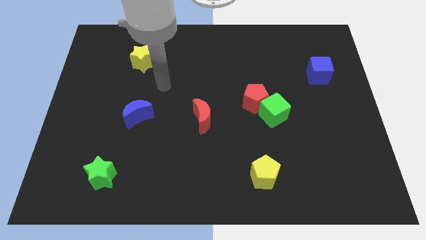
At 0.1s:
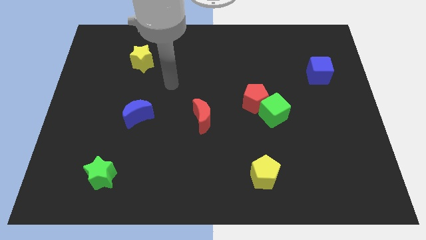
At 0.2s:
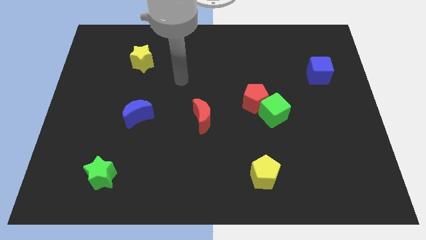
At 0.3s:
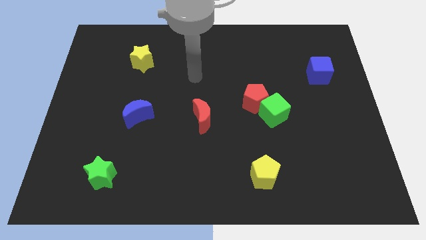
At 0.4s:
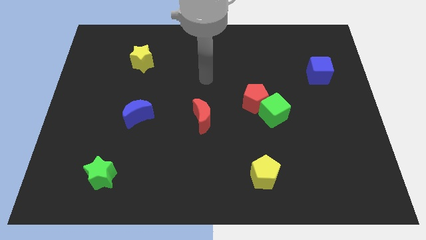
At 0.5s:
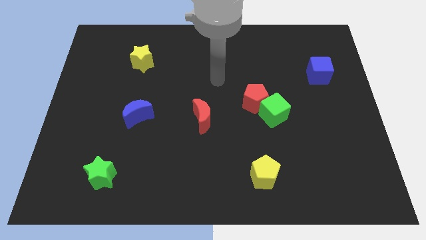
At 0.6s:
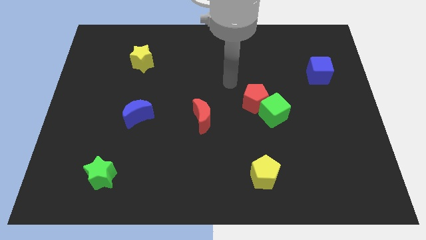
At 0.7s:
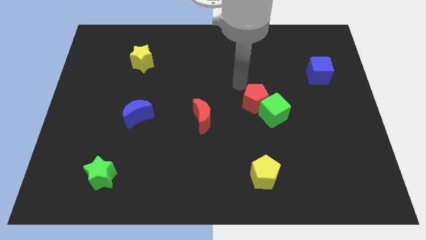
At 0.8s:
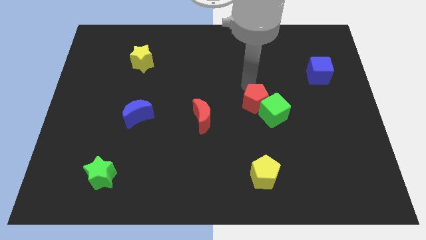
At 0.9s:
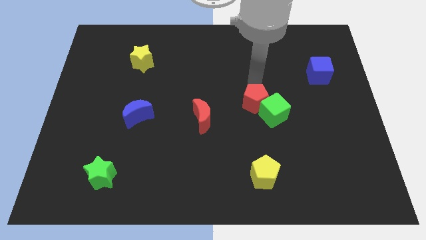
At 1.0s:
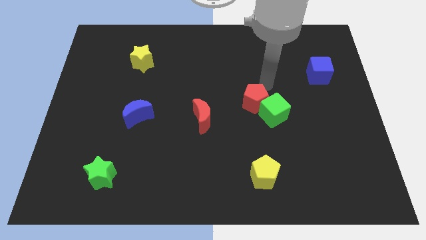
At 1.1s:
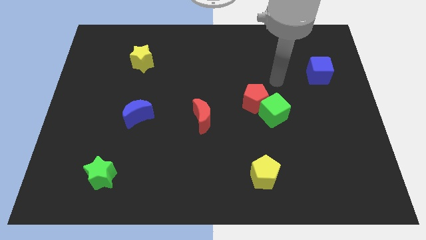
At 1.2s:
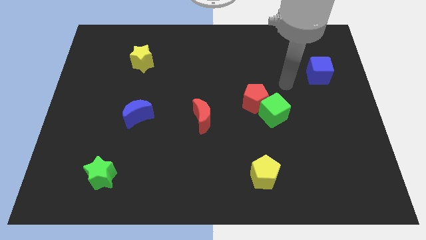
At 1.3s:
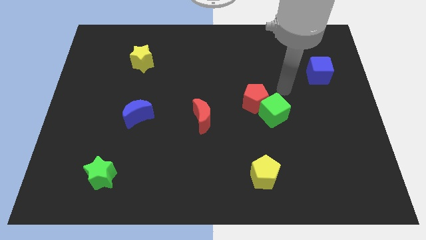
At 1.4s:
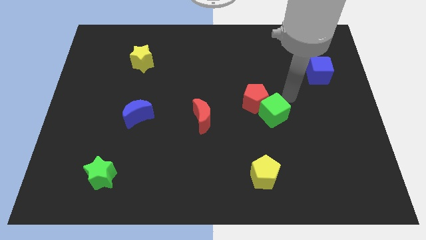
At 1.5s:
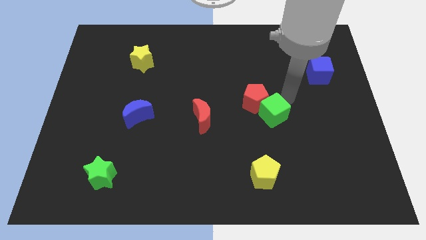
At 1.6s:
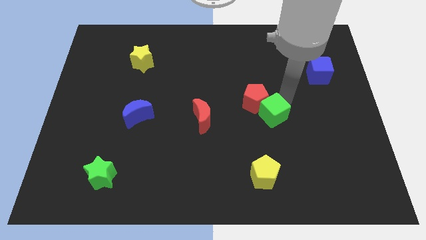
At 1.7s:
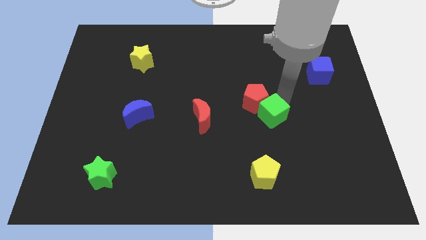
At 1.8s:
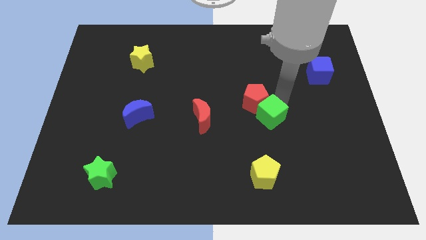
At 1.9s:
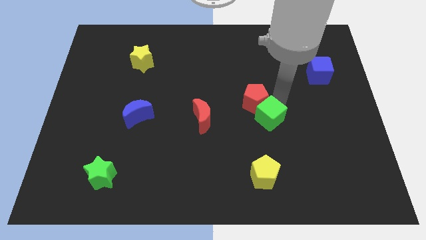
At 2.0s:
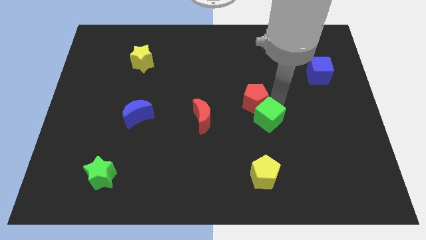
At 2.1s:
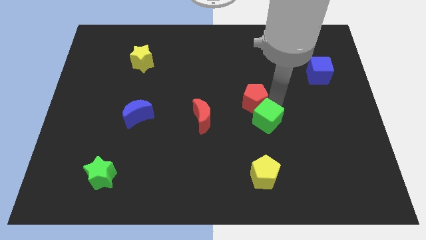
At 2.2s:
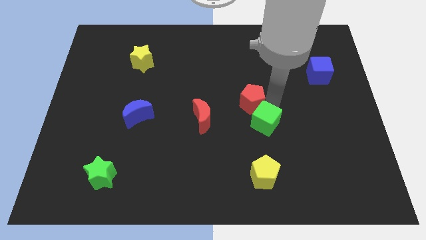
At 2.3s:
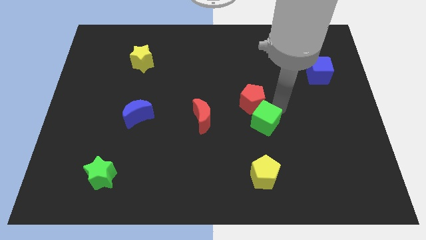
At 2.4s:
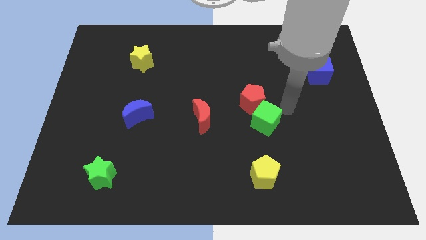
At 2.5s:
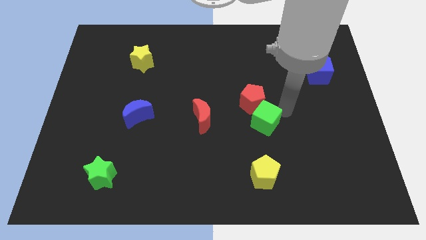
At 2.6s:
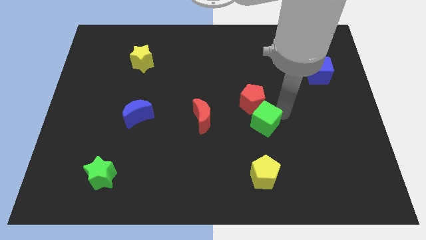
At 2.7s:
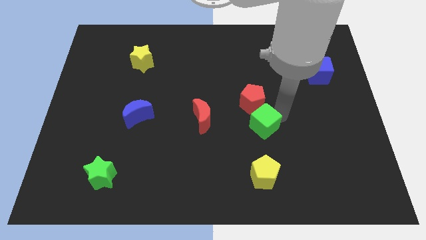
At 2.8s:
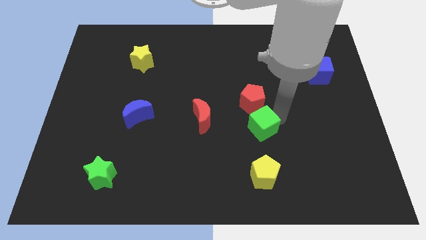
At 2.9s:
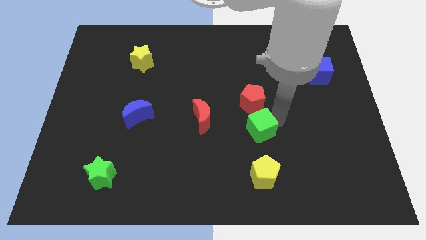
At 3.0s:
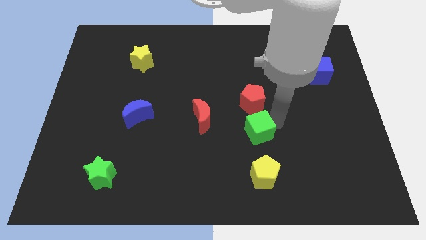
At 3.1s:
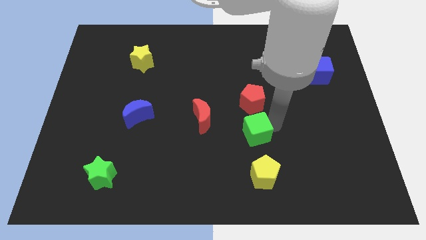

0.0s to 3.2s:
move the green cube a little down and then to the left

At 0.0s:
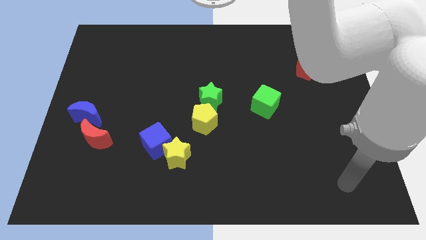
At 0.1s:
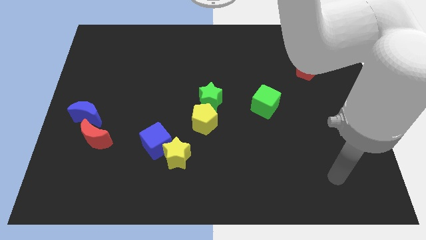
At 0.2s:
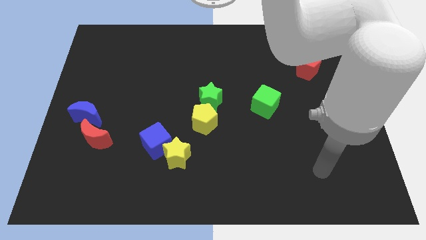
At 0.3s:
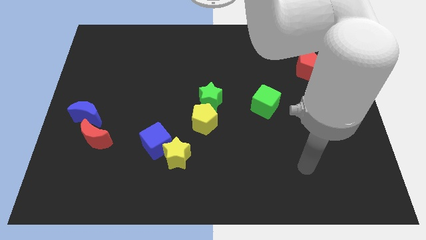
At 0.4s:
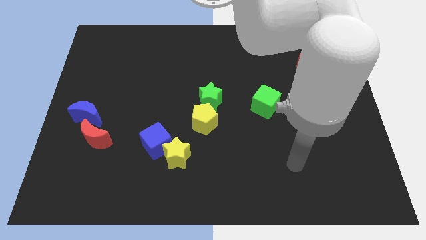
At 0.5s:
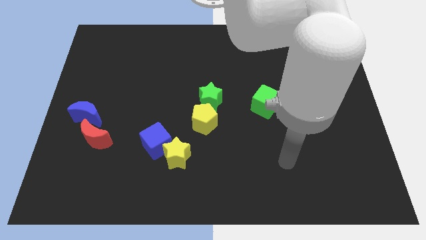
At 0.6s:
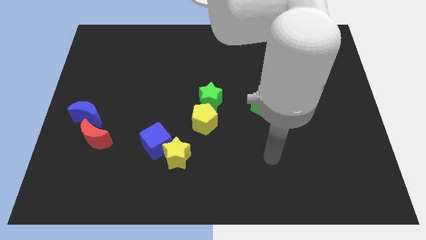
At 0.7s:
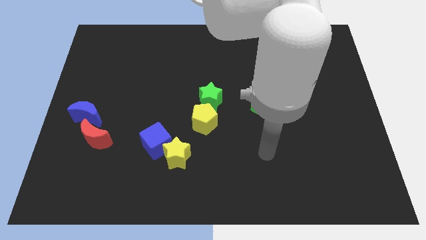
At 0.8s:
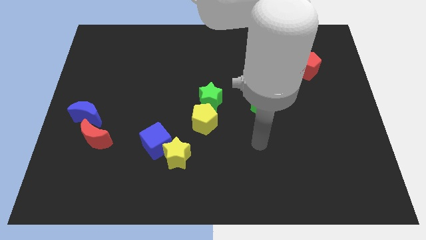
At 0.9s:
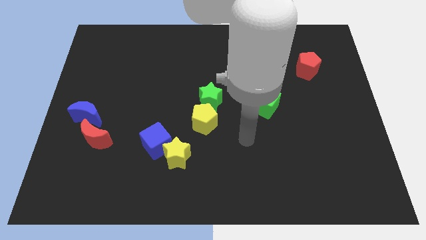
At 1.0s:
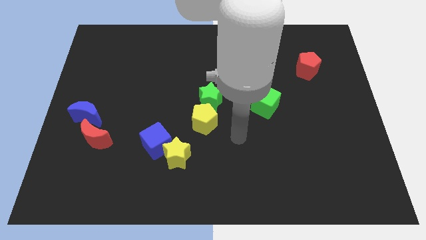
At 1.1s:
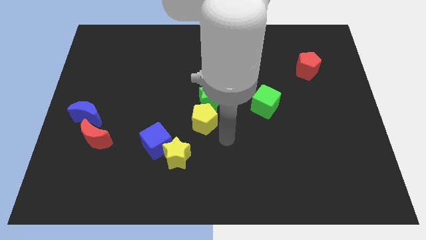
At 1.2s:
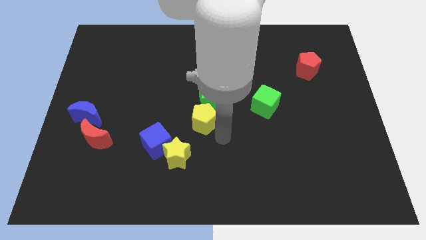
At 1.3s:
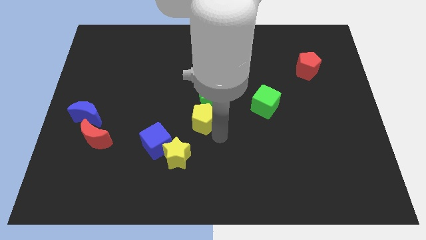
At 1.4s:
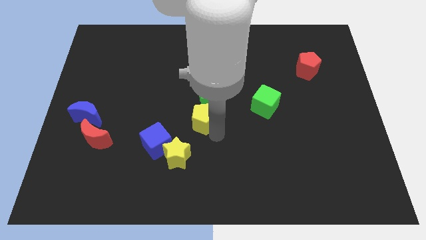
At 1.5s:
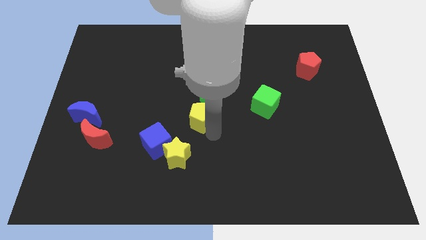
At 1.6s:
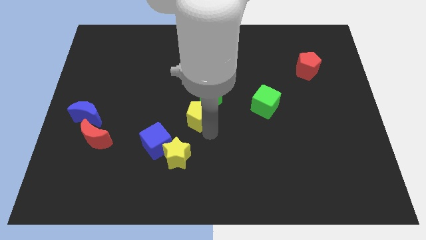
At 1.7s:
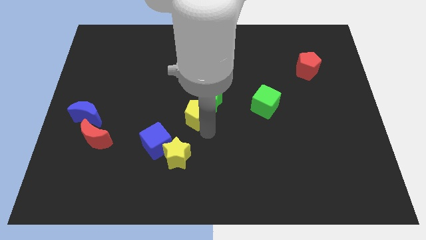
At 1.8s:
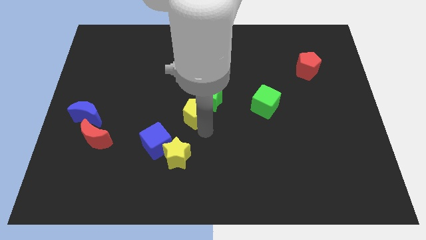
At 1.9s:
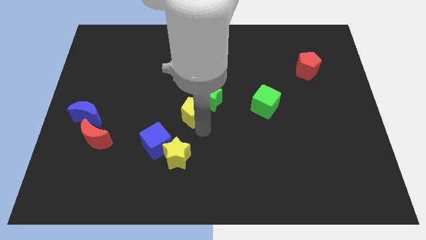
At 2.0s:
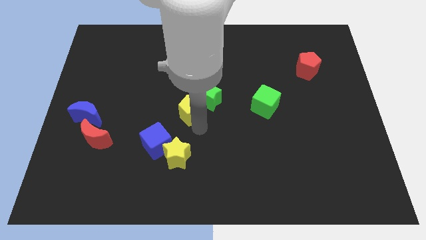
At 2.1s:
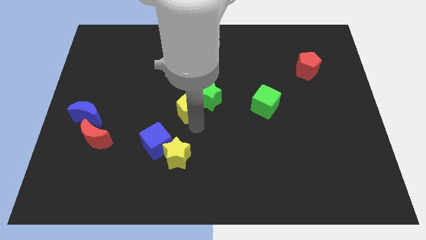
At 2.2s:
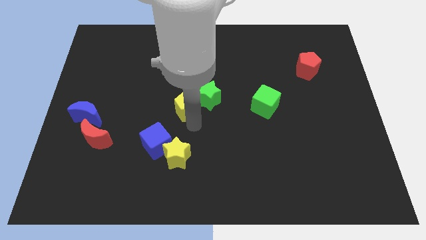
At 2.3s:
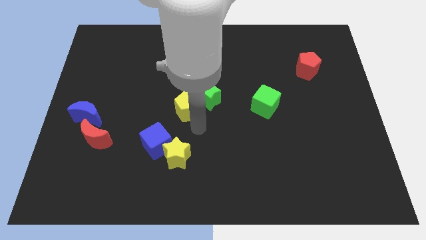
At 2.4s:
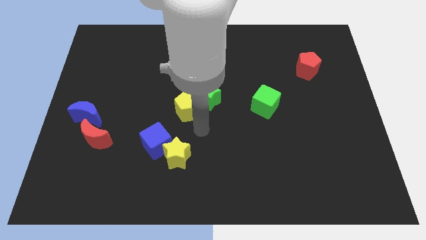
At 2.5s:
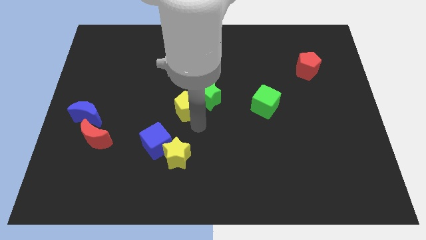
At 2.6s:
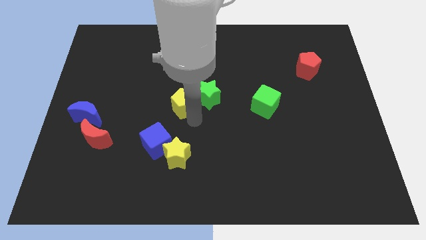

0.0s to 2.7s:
move the yellow pentagon somewhat upwards and then left

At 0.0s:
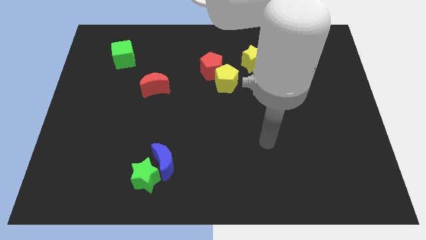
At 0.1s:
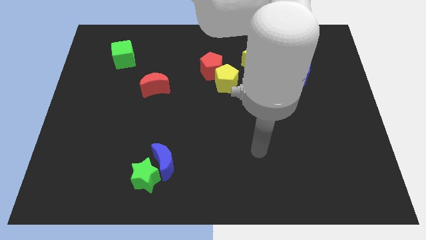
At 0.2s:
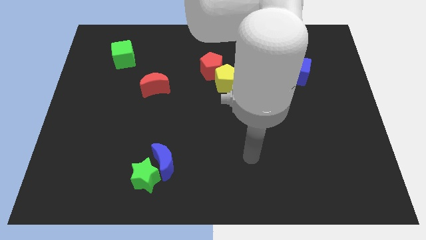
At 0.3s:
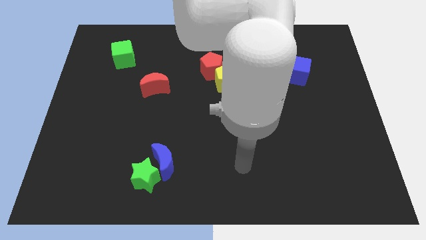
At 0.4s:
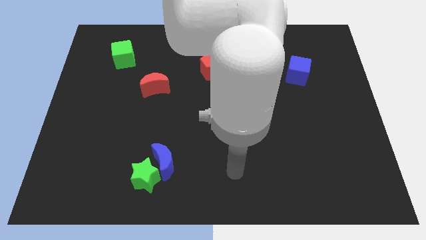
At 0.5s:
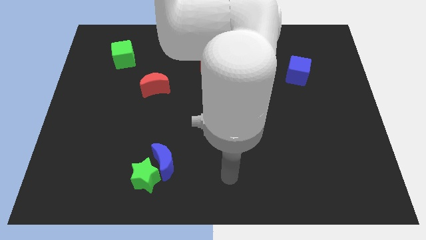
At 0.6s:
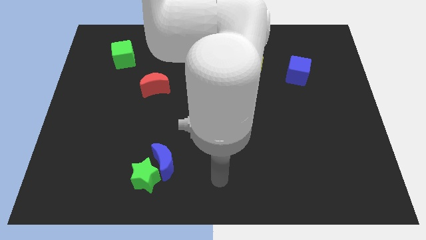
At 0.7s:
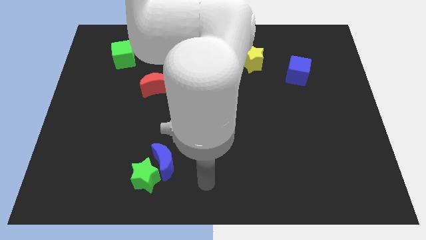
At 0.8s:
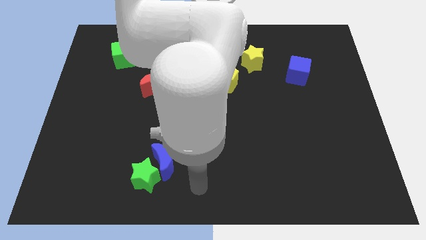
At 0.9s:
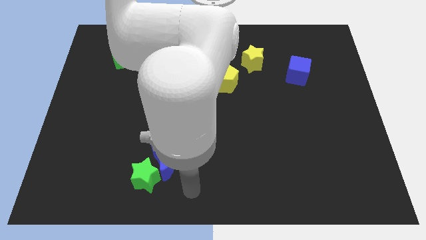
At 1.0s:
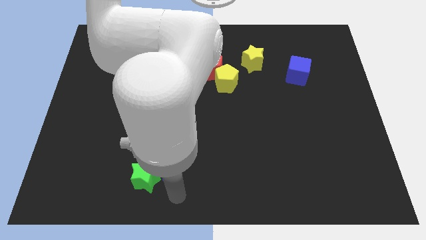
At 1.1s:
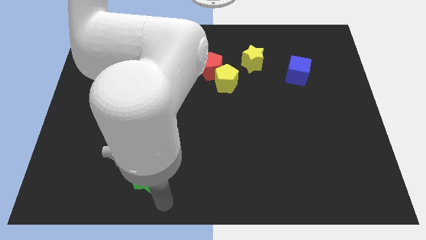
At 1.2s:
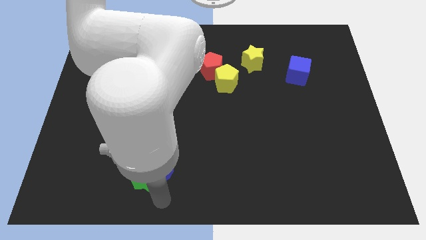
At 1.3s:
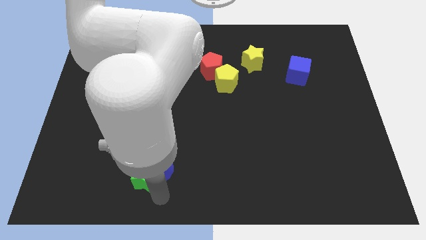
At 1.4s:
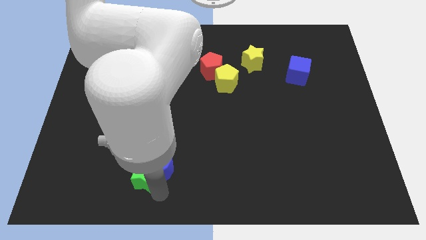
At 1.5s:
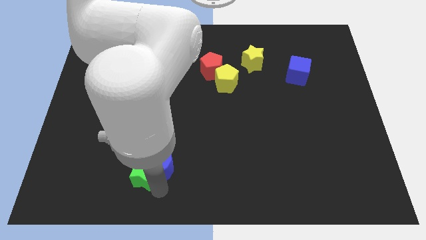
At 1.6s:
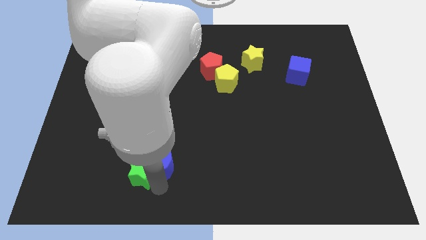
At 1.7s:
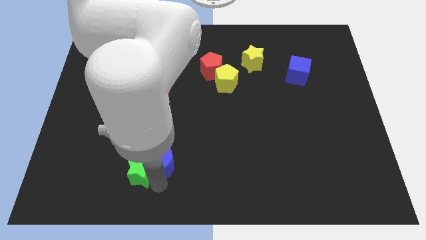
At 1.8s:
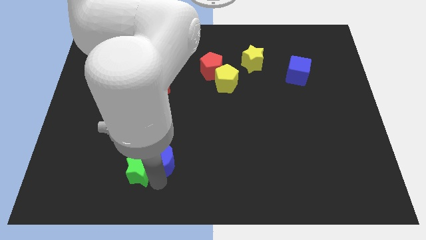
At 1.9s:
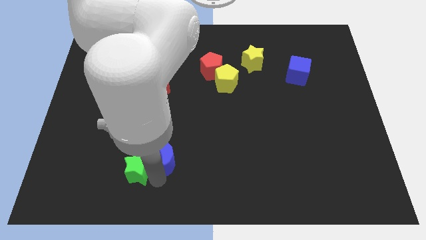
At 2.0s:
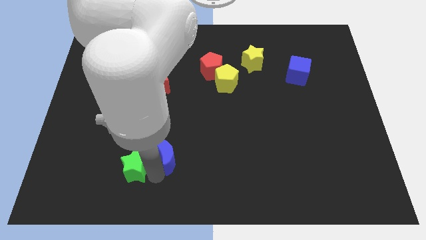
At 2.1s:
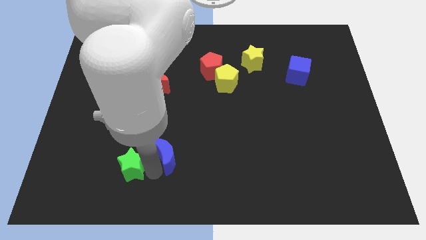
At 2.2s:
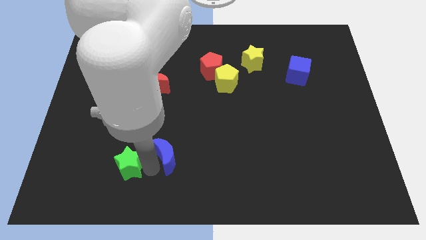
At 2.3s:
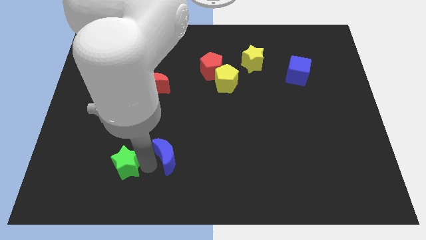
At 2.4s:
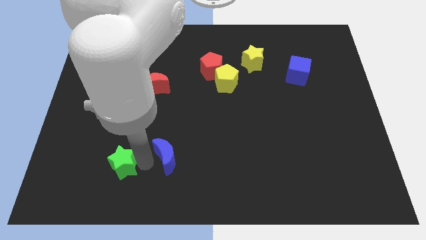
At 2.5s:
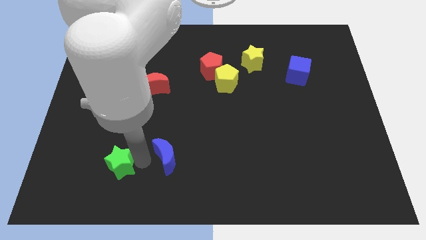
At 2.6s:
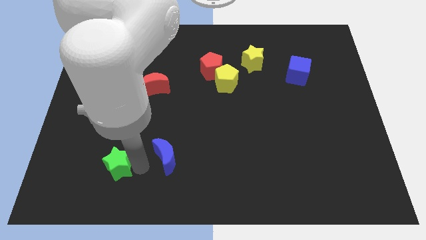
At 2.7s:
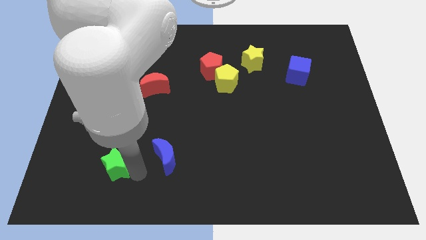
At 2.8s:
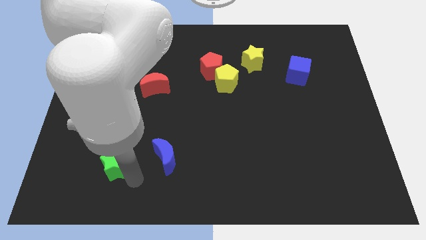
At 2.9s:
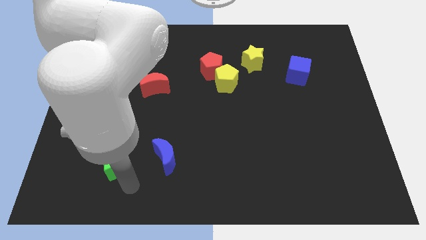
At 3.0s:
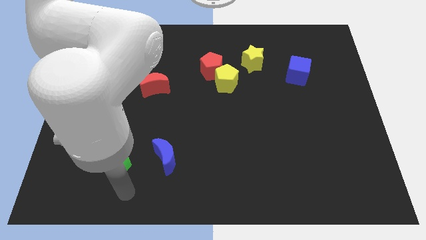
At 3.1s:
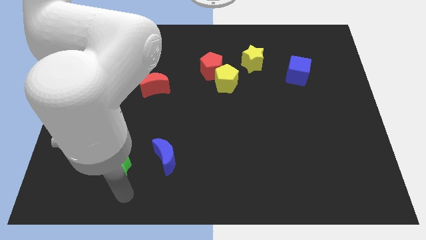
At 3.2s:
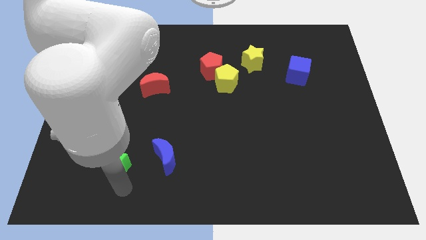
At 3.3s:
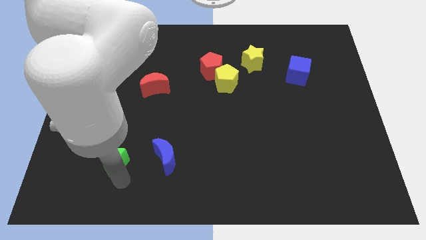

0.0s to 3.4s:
push the green star upwards and left diagonally slightly
